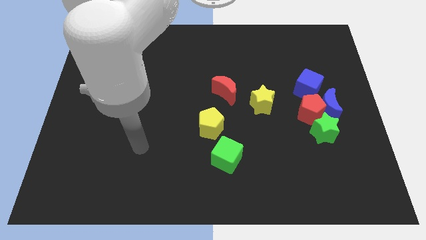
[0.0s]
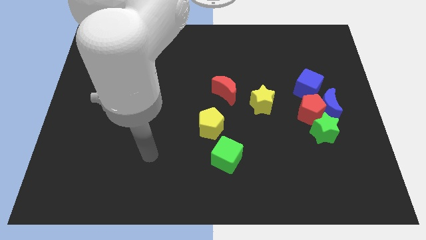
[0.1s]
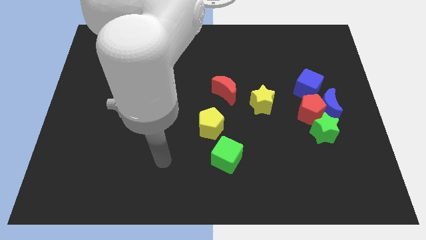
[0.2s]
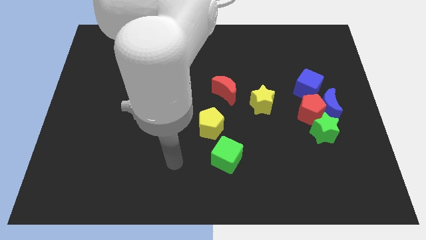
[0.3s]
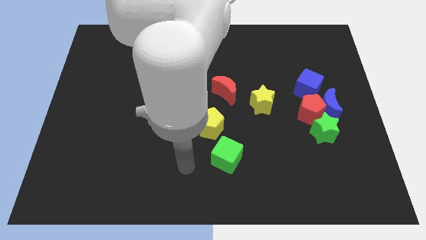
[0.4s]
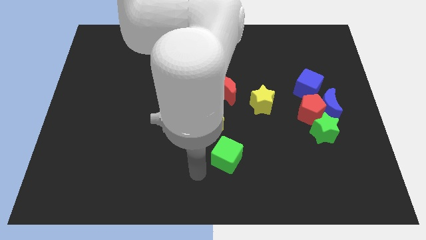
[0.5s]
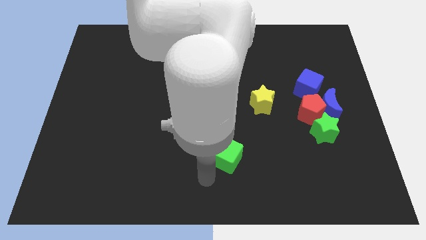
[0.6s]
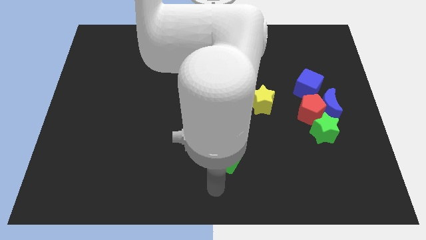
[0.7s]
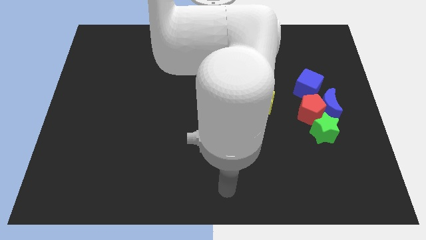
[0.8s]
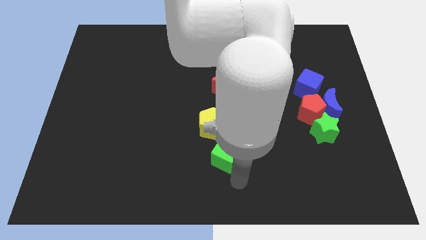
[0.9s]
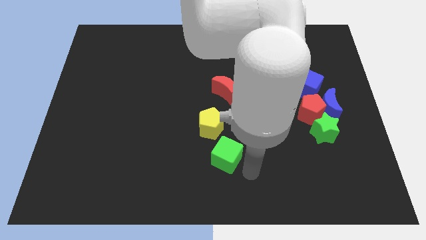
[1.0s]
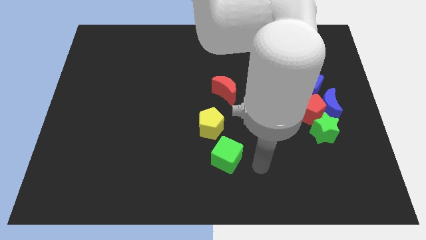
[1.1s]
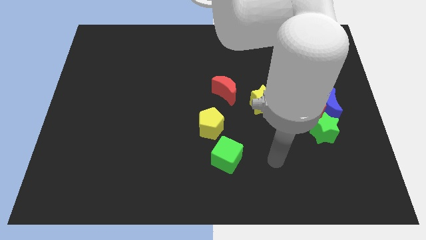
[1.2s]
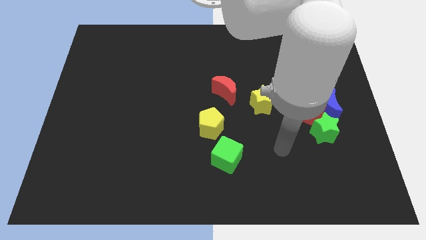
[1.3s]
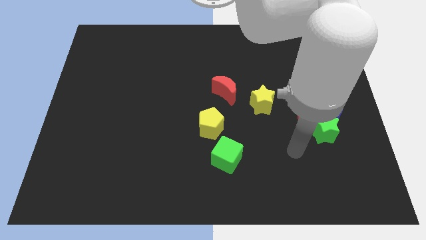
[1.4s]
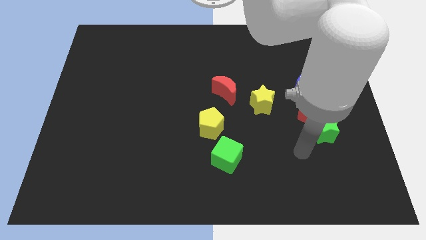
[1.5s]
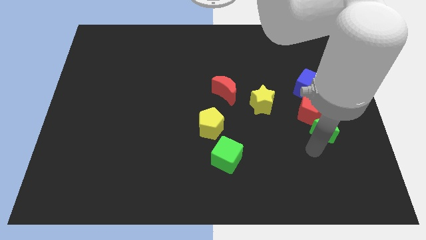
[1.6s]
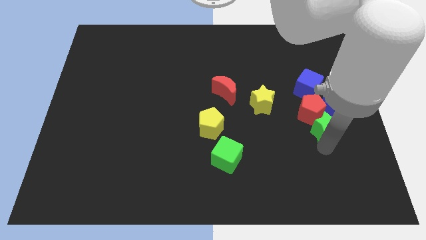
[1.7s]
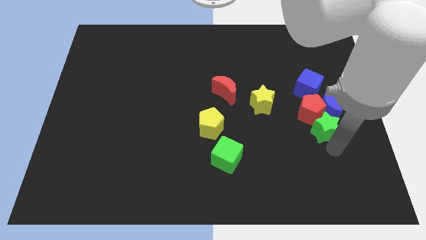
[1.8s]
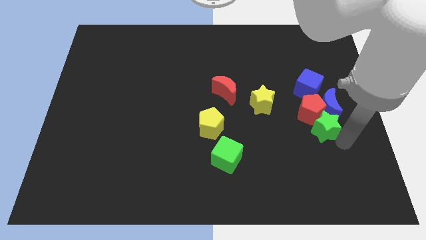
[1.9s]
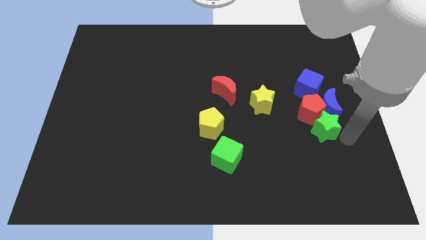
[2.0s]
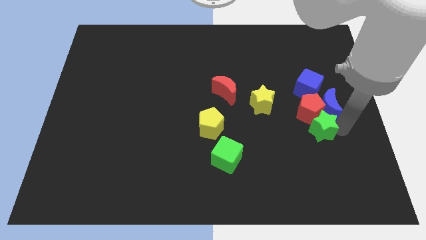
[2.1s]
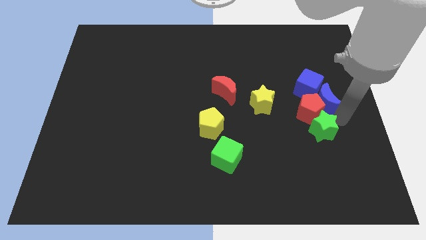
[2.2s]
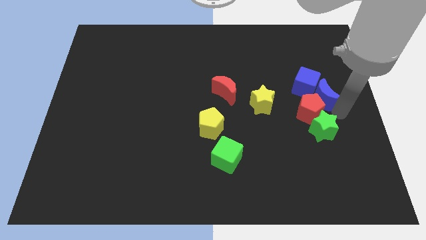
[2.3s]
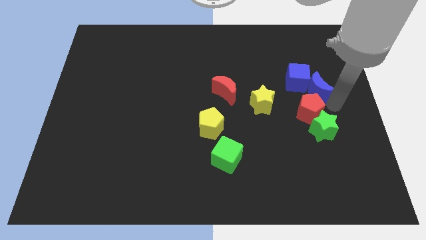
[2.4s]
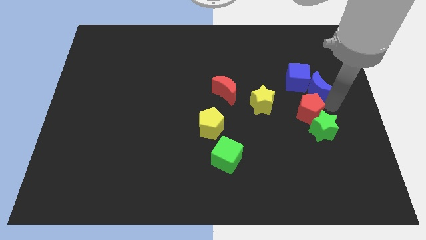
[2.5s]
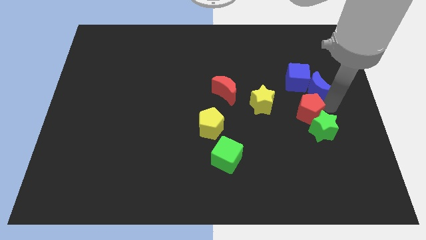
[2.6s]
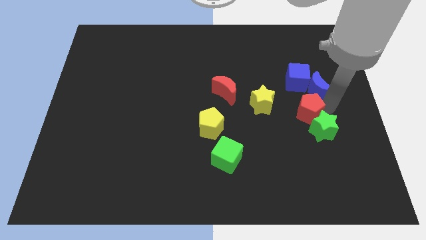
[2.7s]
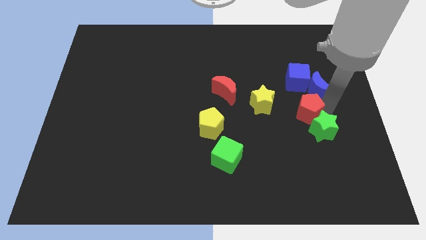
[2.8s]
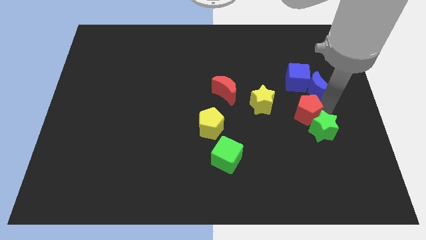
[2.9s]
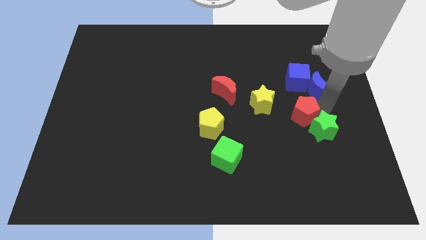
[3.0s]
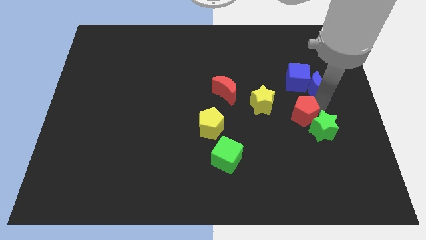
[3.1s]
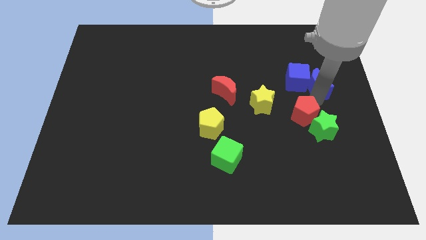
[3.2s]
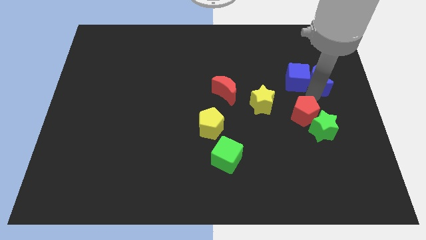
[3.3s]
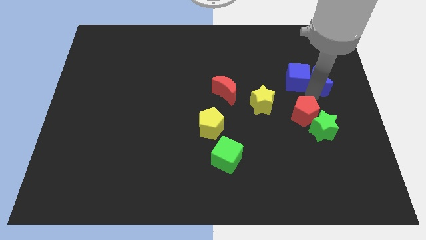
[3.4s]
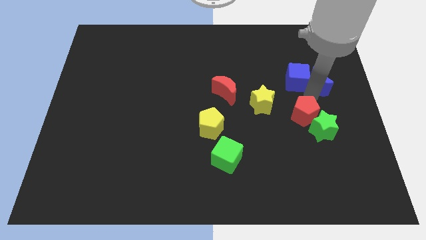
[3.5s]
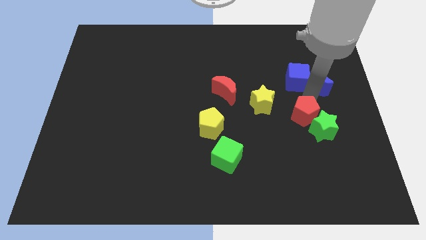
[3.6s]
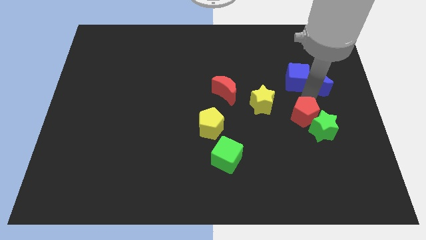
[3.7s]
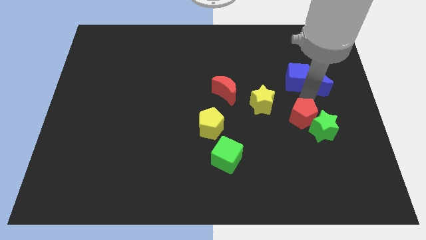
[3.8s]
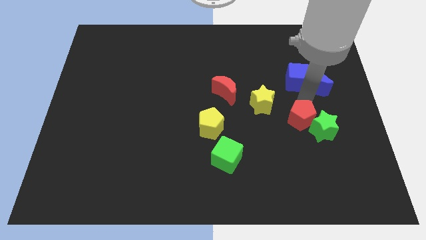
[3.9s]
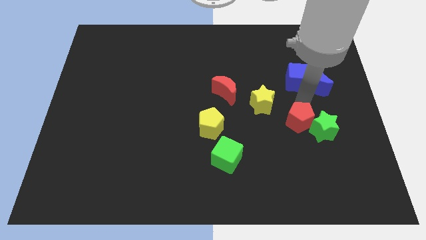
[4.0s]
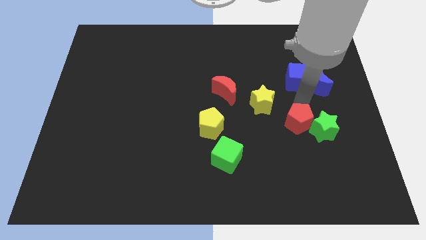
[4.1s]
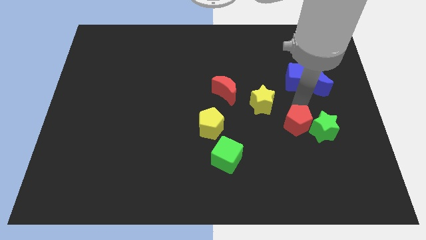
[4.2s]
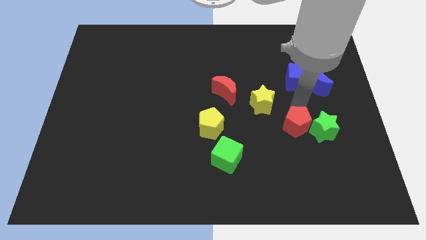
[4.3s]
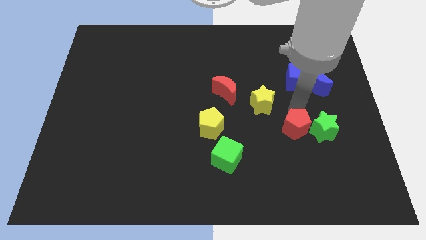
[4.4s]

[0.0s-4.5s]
pull the red pentagon apart from the blue moon, green star, and blue cube

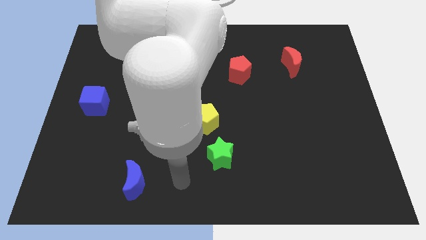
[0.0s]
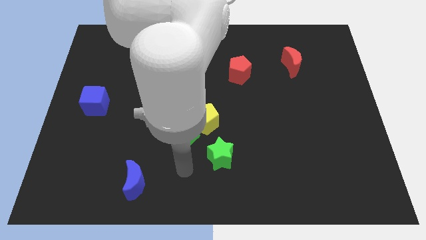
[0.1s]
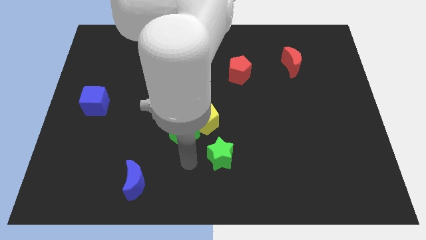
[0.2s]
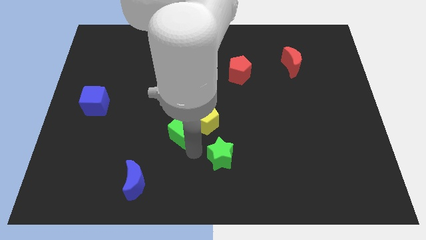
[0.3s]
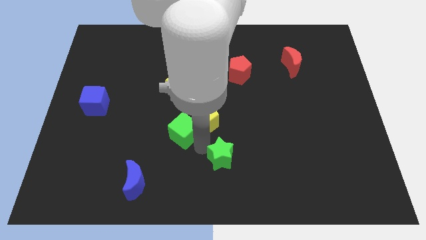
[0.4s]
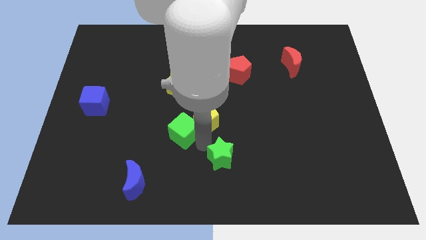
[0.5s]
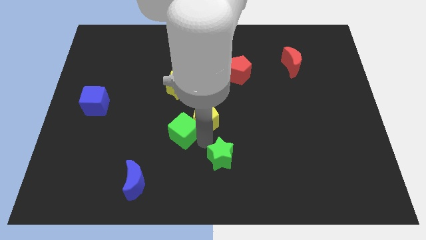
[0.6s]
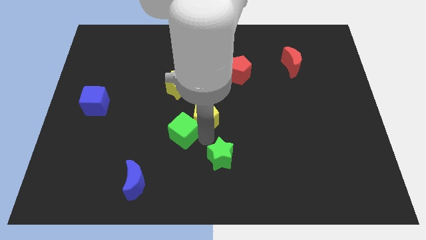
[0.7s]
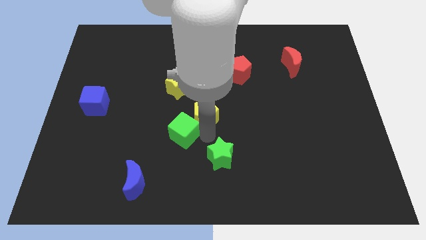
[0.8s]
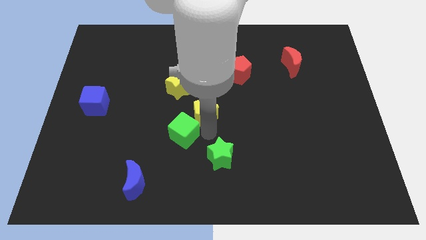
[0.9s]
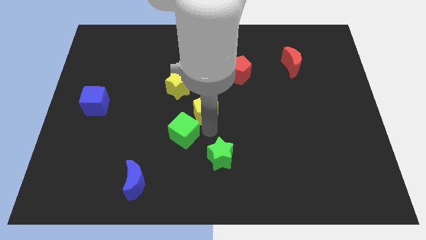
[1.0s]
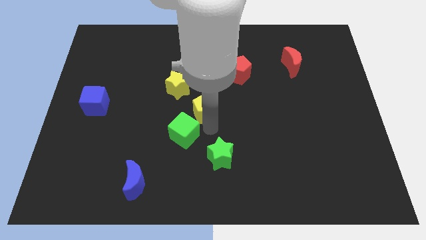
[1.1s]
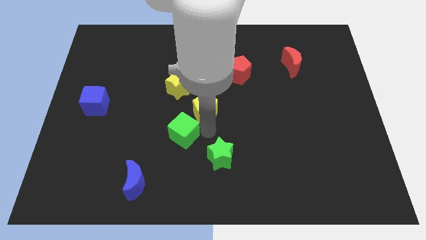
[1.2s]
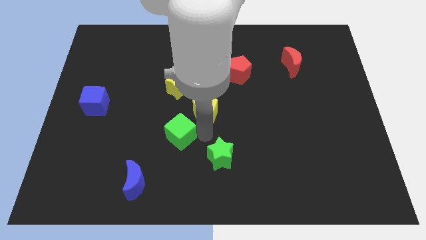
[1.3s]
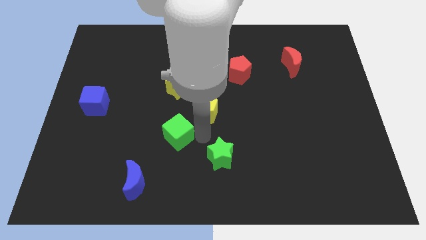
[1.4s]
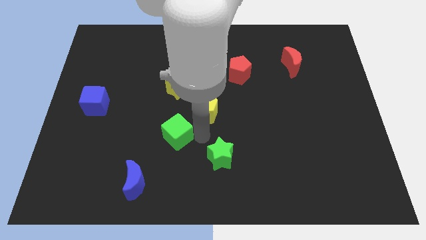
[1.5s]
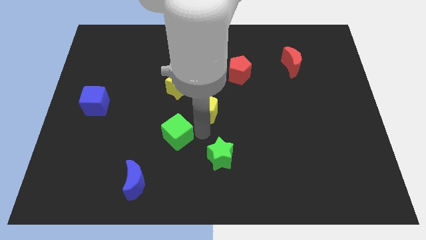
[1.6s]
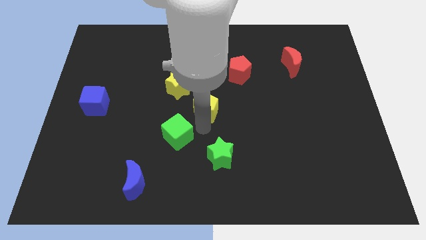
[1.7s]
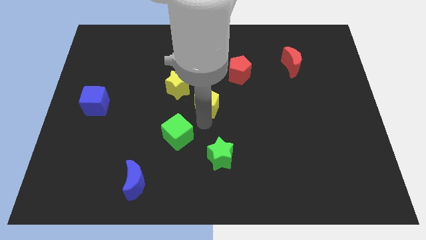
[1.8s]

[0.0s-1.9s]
separate the yellow pentagon from the green cube and green star

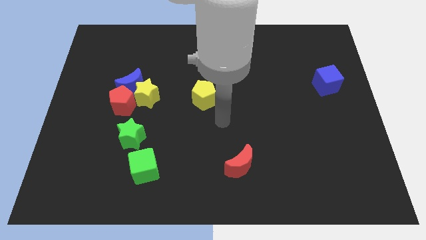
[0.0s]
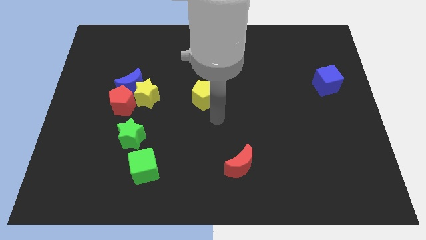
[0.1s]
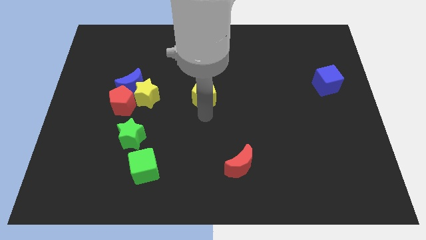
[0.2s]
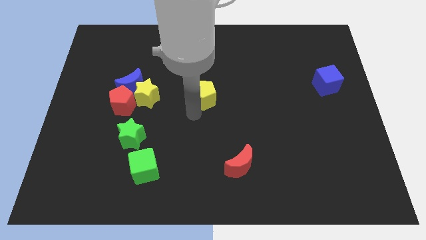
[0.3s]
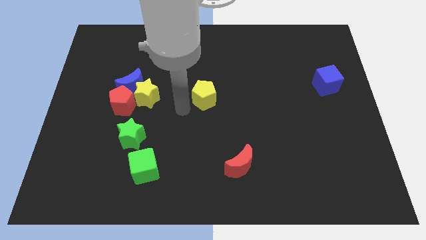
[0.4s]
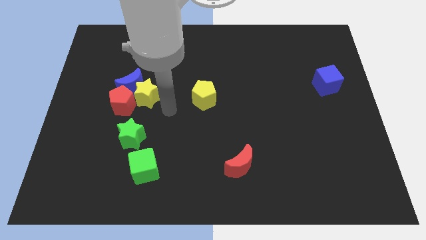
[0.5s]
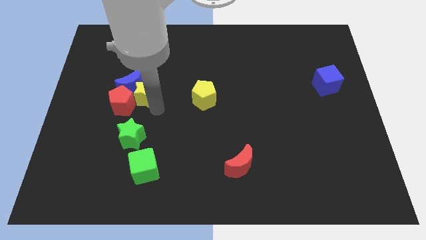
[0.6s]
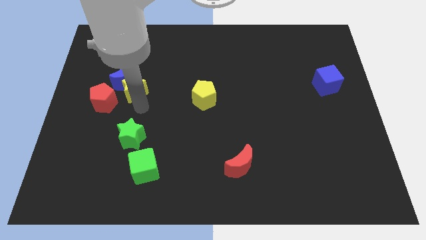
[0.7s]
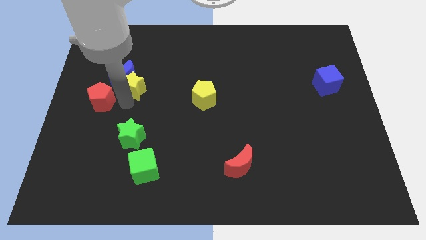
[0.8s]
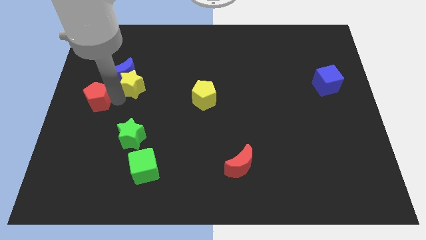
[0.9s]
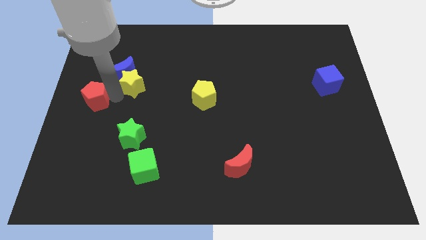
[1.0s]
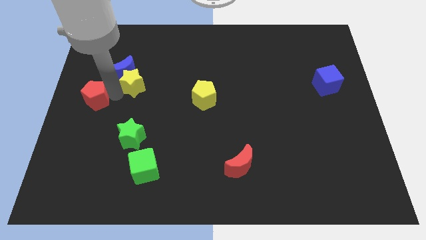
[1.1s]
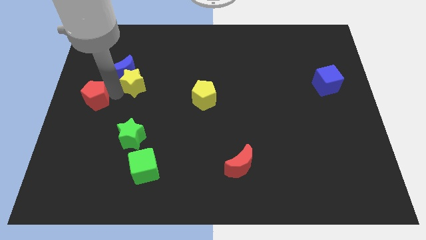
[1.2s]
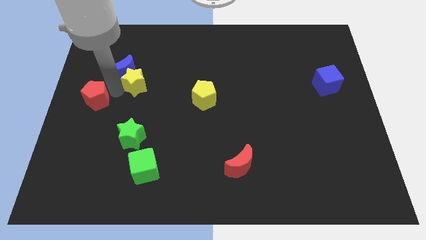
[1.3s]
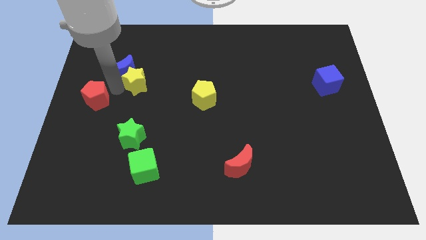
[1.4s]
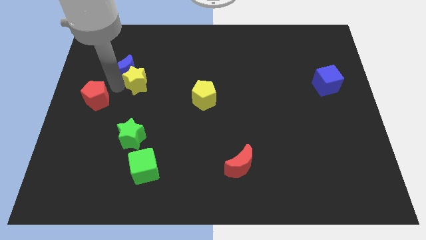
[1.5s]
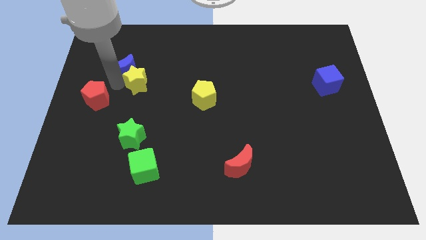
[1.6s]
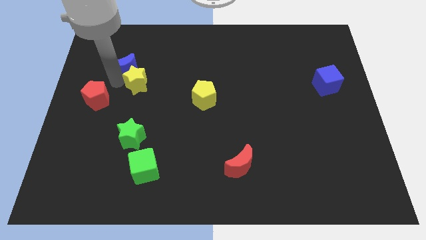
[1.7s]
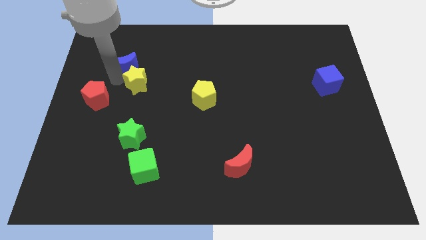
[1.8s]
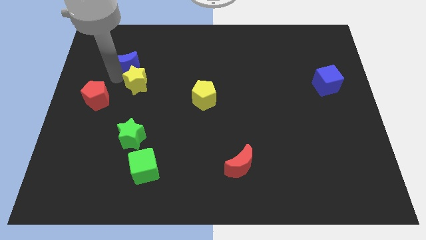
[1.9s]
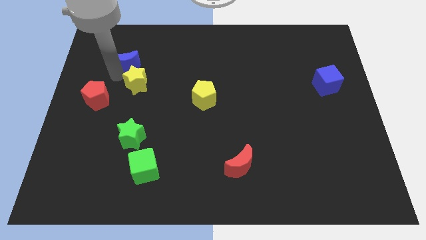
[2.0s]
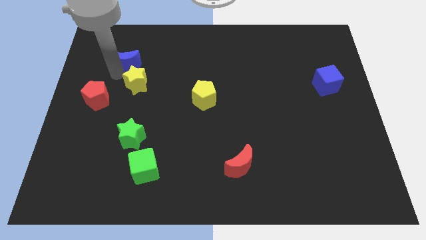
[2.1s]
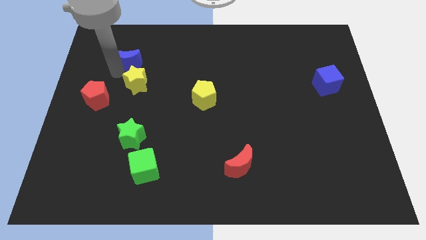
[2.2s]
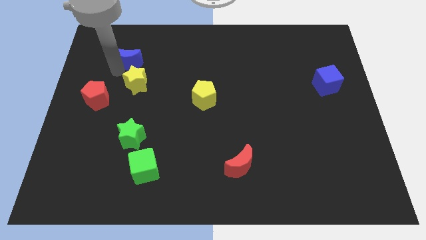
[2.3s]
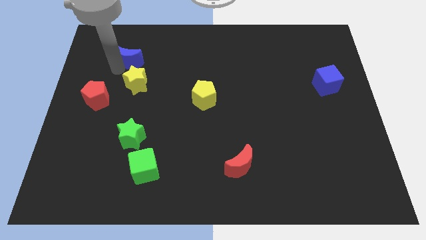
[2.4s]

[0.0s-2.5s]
pull the blue moon apart from the yellow star and red pentagon

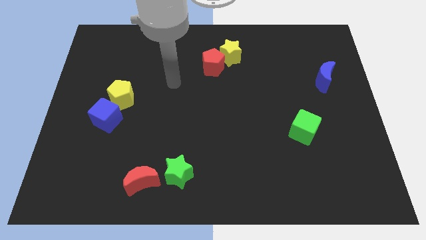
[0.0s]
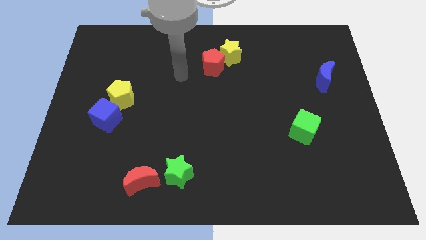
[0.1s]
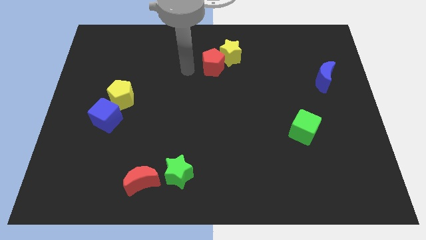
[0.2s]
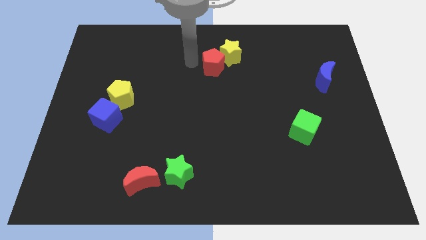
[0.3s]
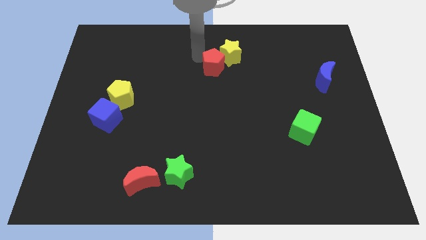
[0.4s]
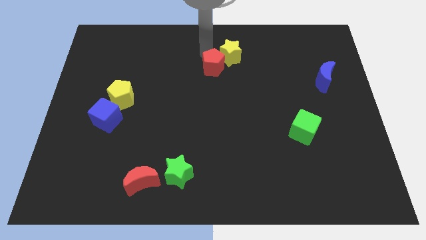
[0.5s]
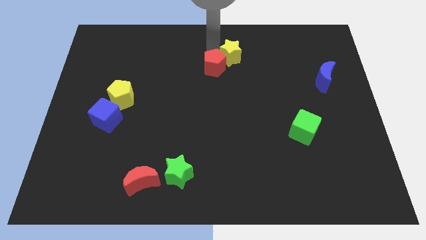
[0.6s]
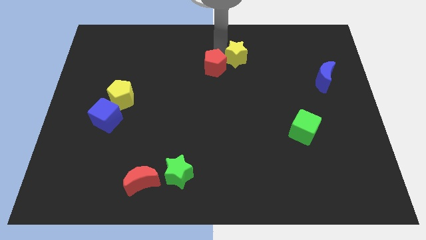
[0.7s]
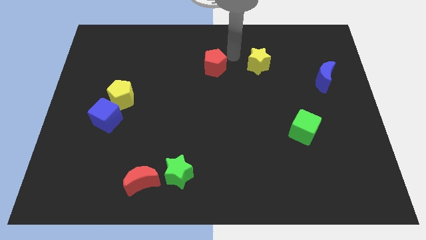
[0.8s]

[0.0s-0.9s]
pull the red pentagon apart from the yellow star
